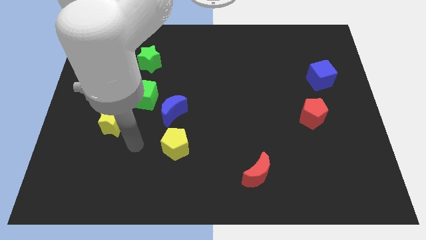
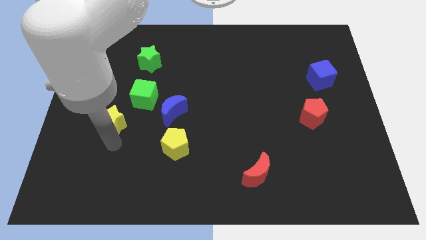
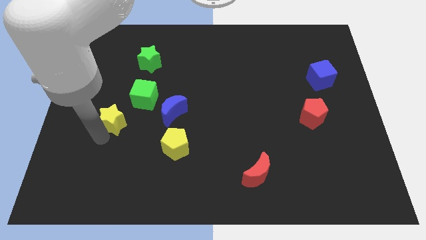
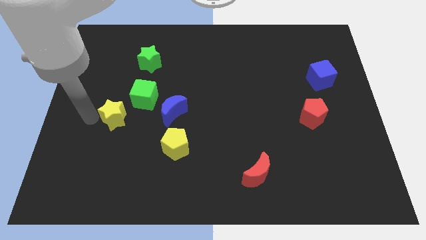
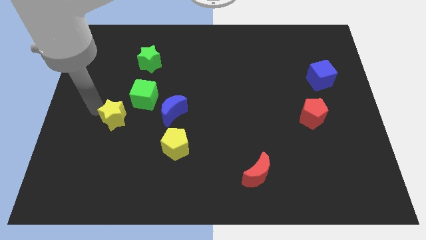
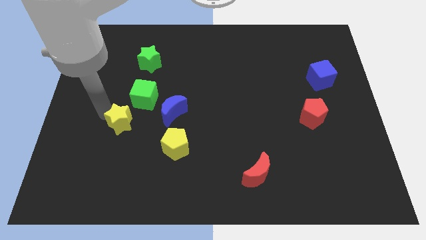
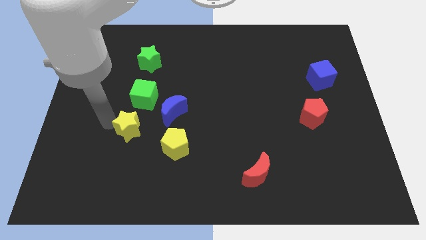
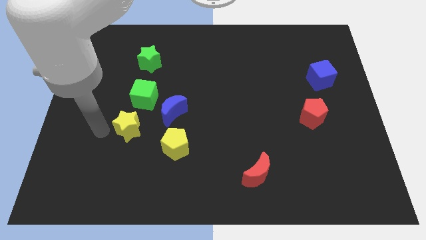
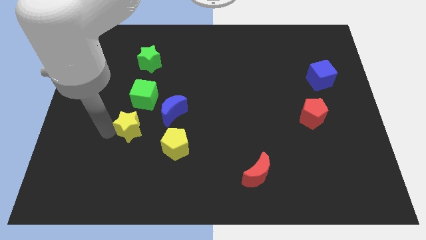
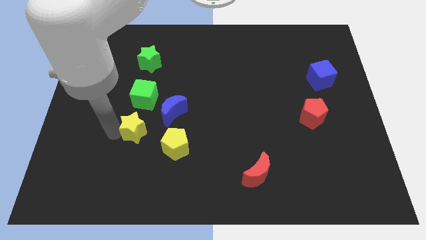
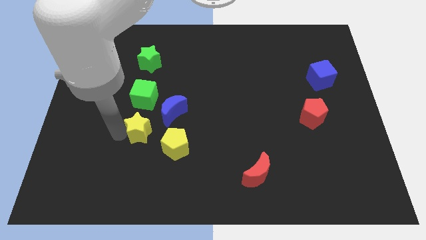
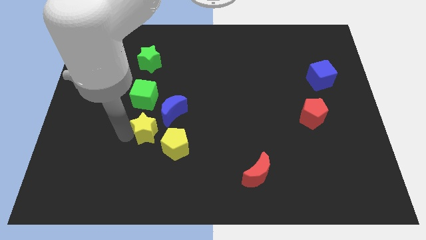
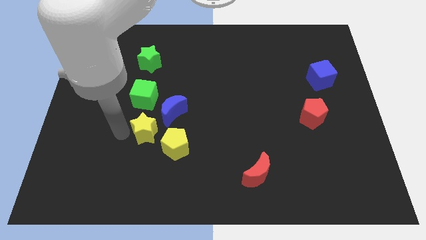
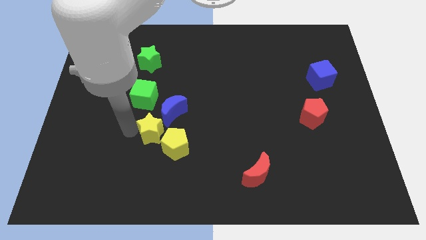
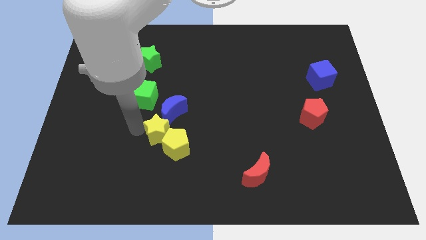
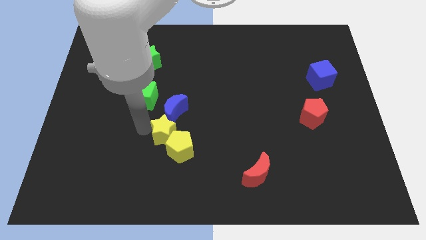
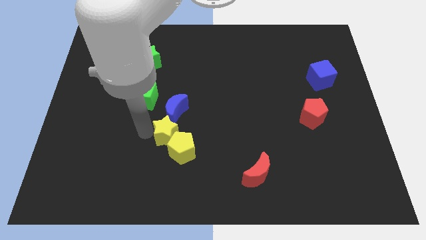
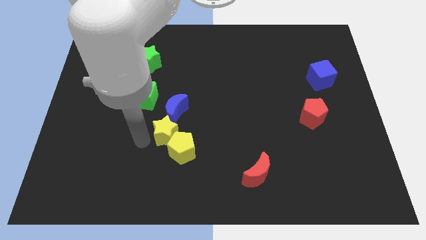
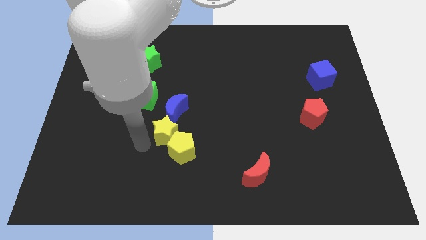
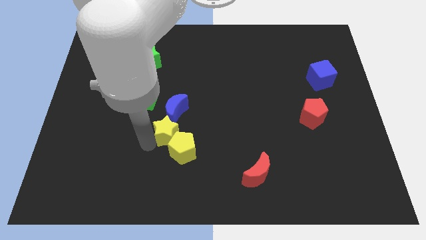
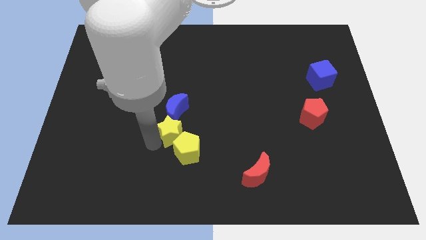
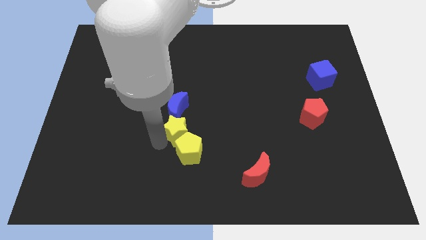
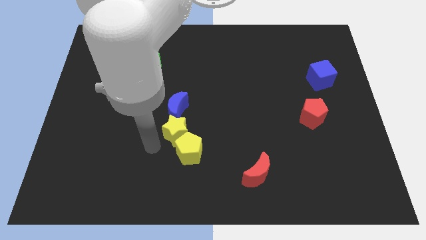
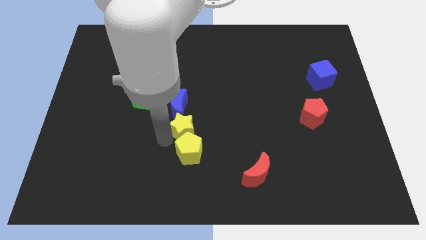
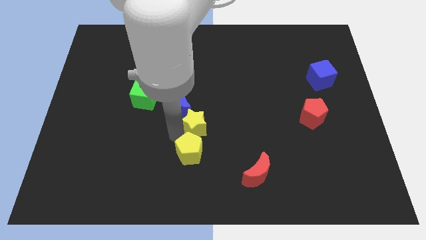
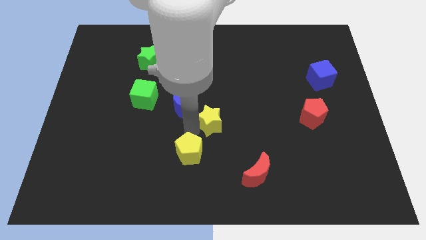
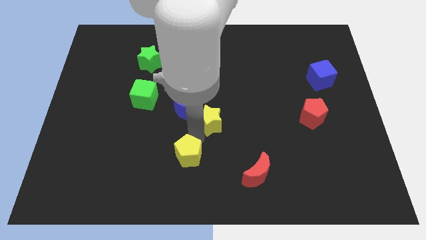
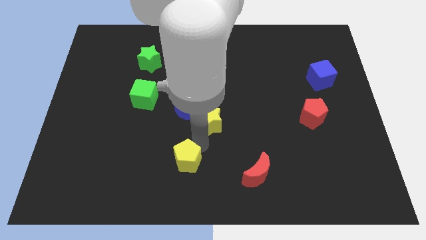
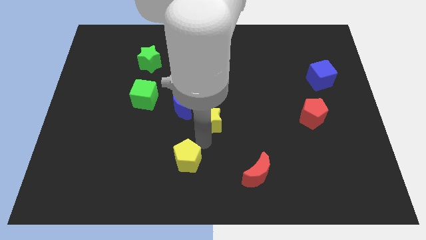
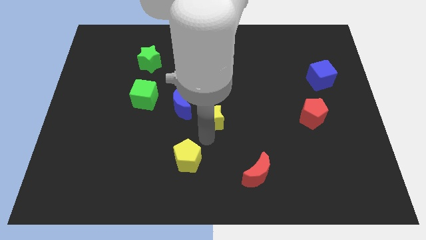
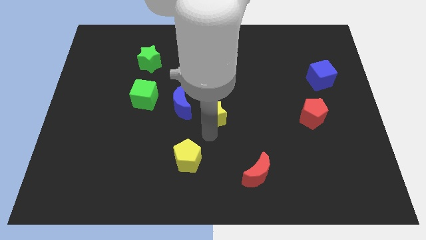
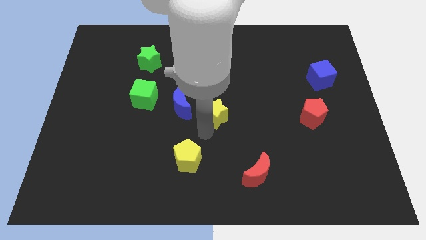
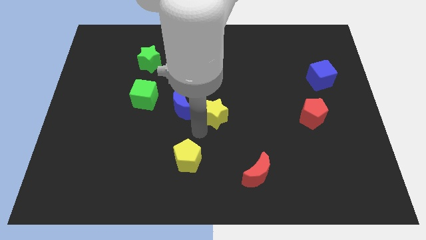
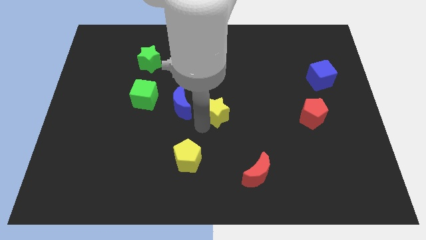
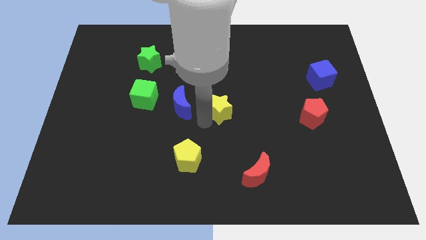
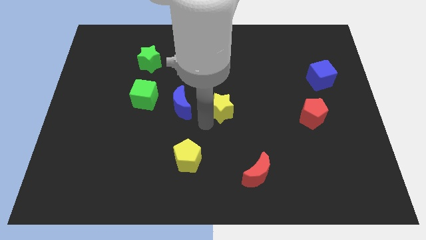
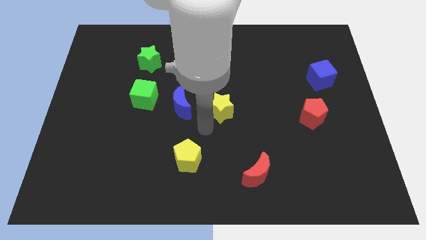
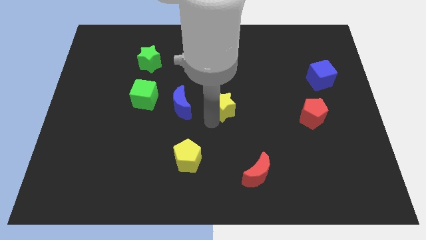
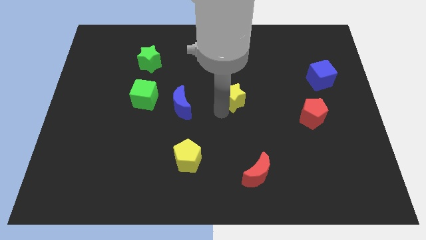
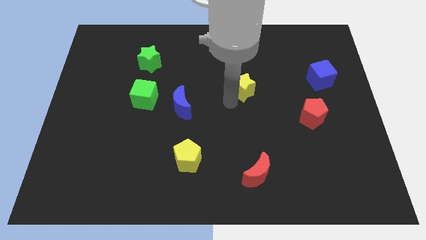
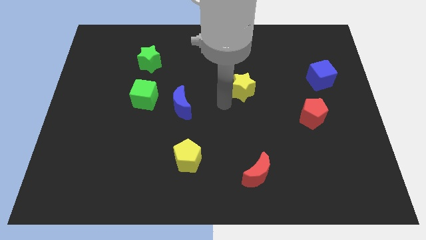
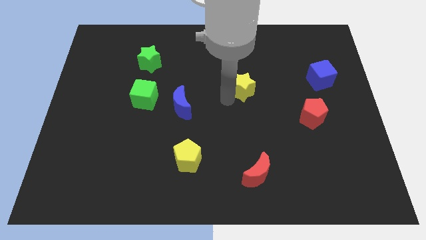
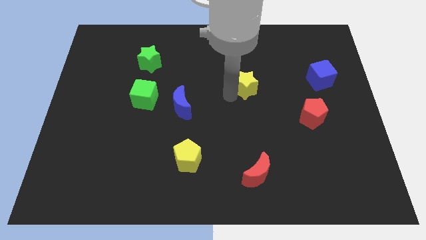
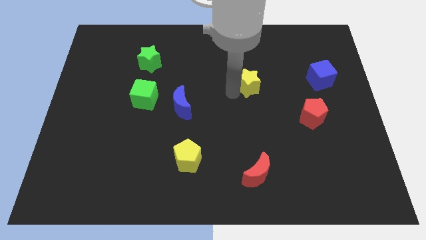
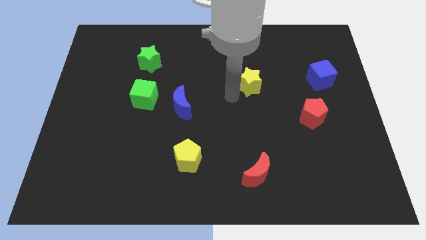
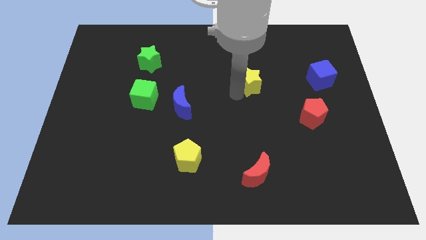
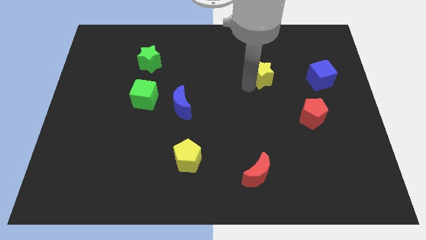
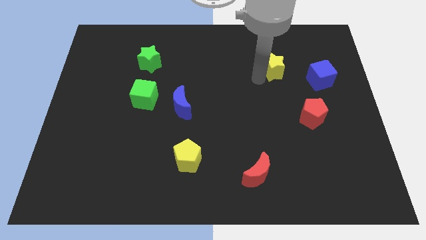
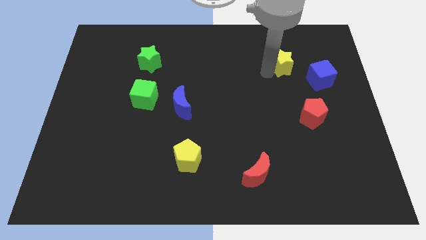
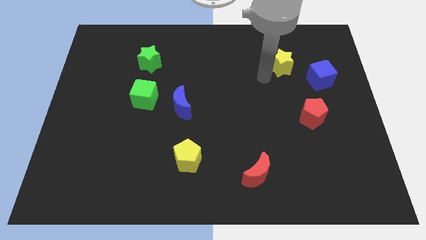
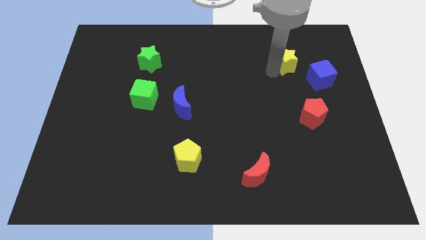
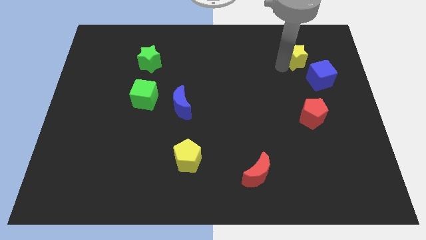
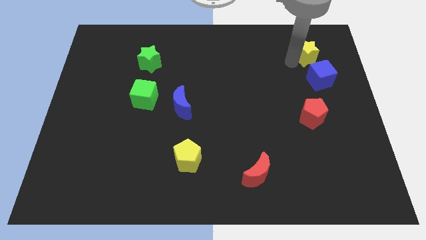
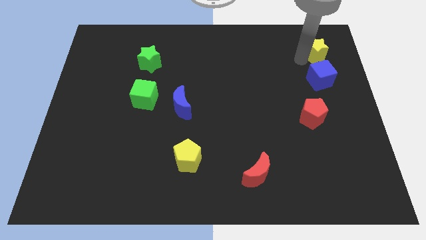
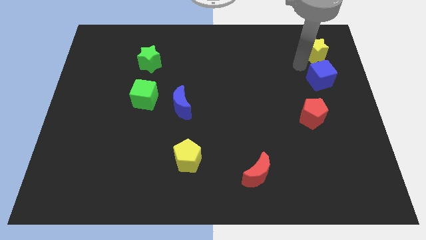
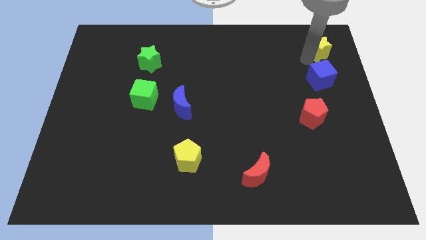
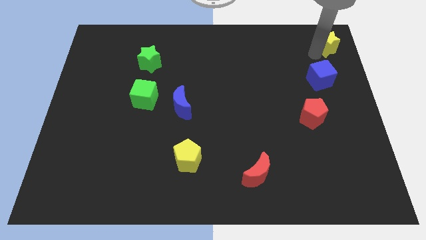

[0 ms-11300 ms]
slide the yellow star to the top right corner
